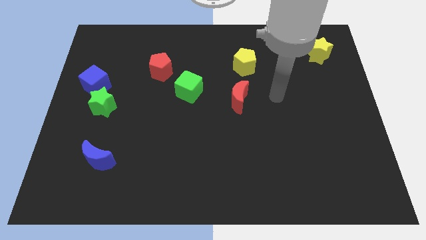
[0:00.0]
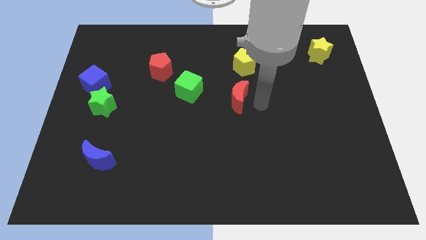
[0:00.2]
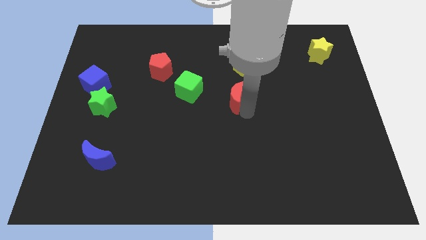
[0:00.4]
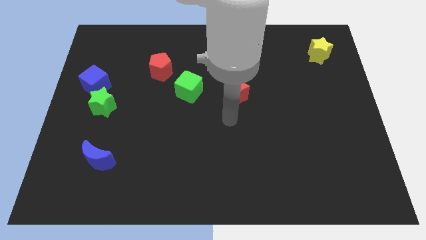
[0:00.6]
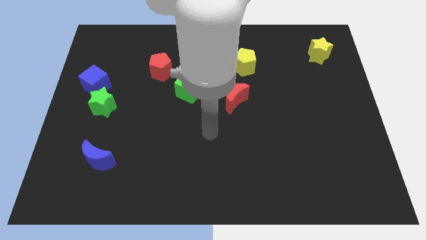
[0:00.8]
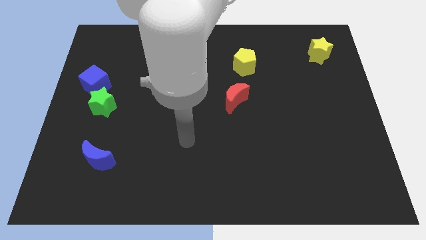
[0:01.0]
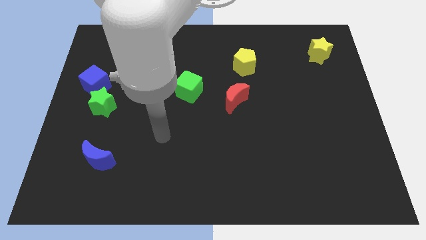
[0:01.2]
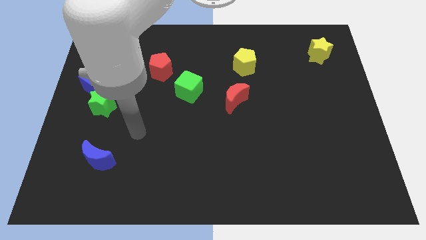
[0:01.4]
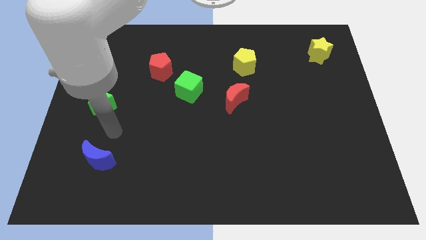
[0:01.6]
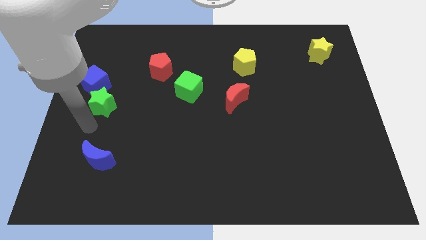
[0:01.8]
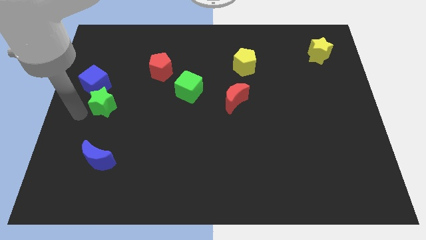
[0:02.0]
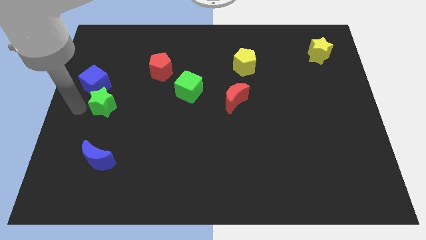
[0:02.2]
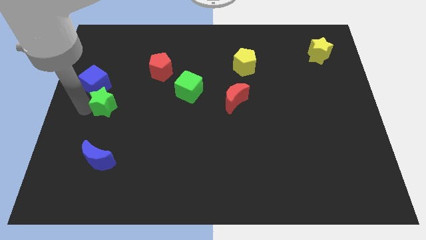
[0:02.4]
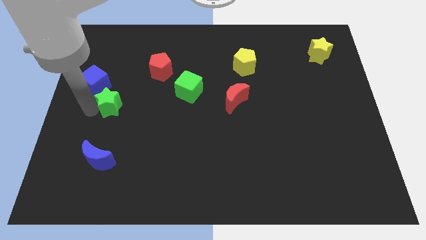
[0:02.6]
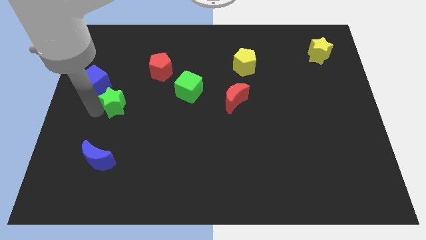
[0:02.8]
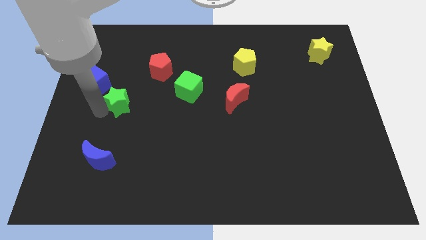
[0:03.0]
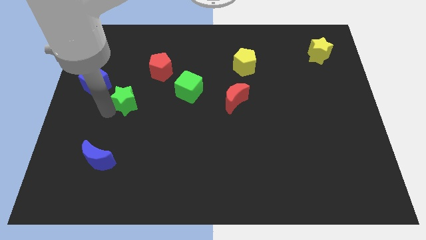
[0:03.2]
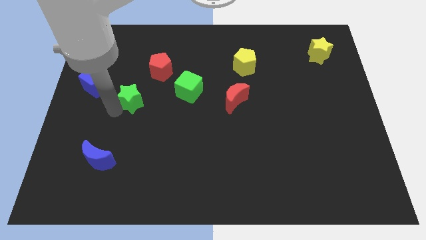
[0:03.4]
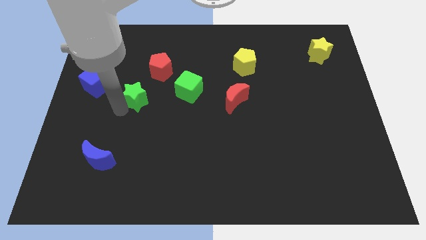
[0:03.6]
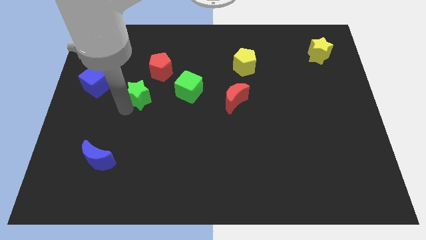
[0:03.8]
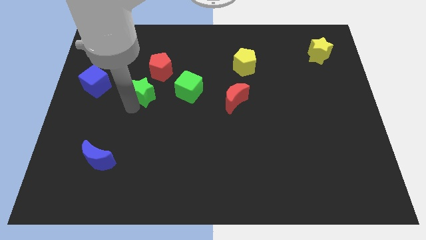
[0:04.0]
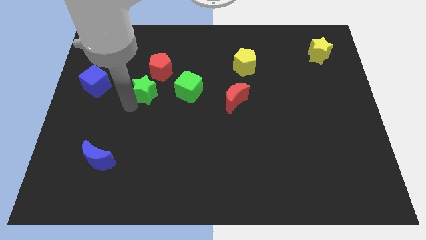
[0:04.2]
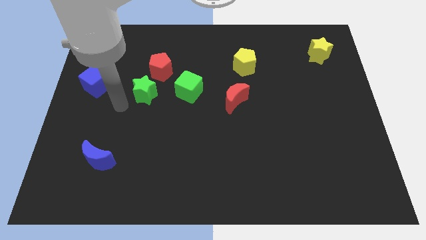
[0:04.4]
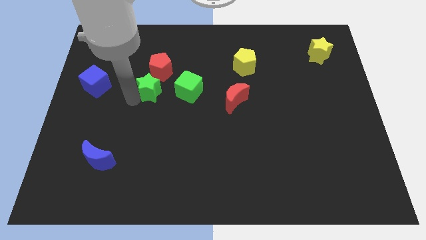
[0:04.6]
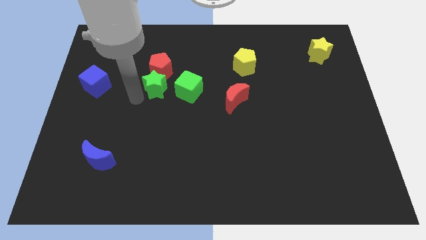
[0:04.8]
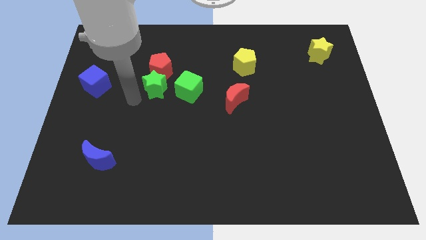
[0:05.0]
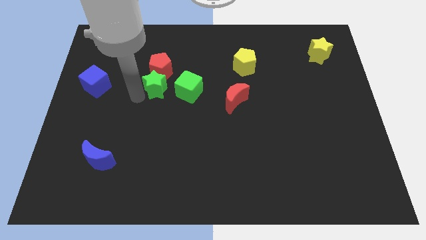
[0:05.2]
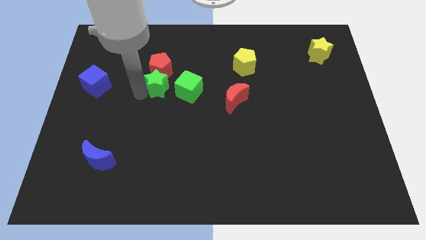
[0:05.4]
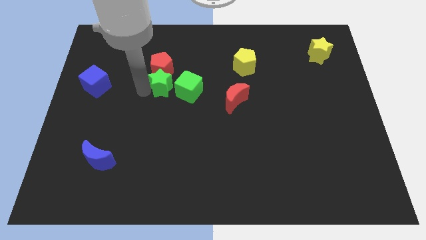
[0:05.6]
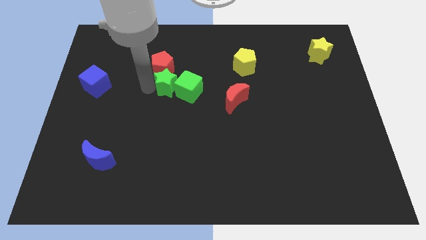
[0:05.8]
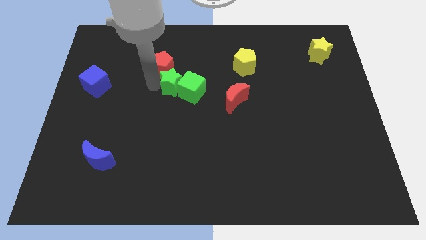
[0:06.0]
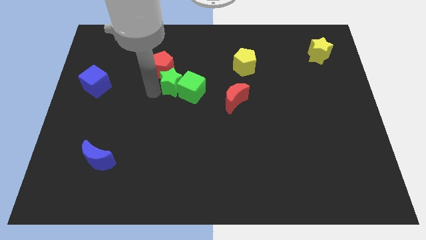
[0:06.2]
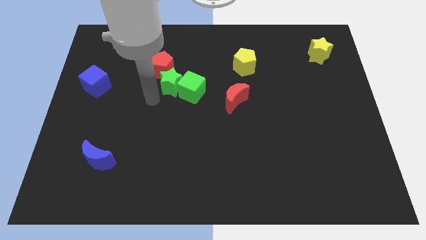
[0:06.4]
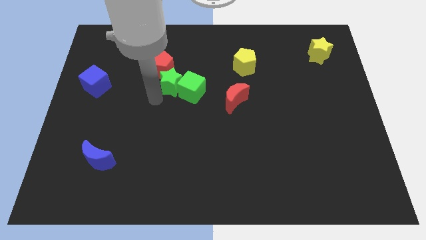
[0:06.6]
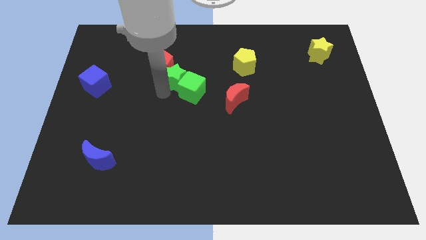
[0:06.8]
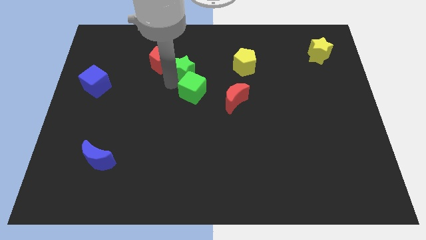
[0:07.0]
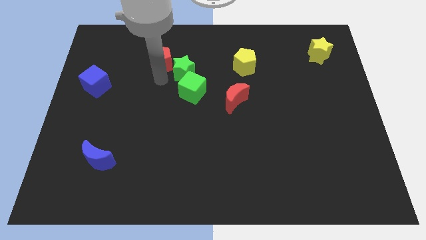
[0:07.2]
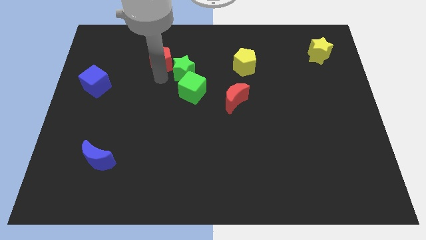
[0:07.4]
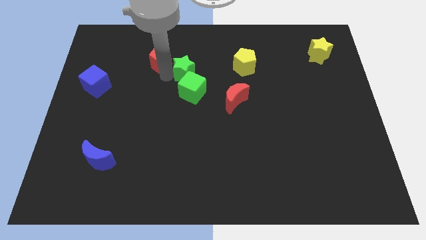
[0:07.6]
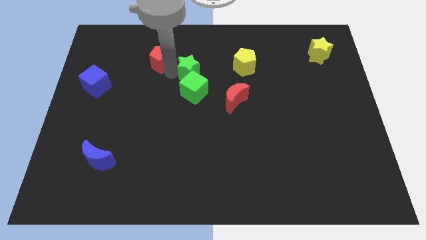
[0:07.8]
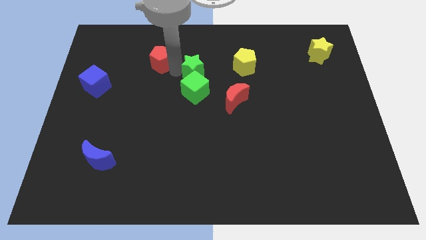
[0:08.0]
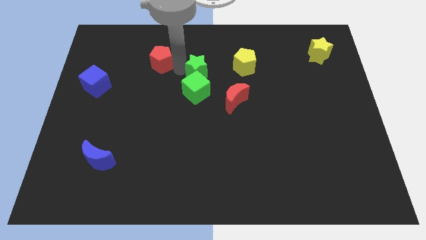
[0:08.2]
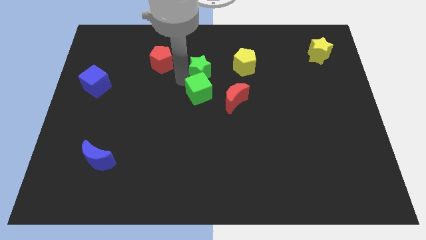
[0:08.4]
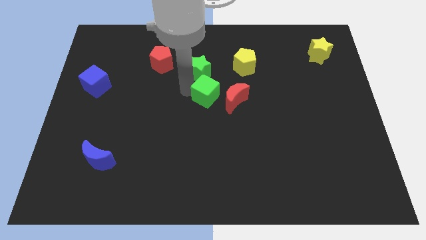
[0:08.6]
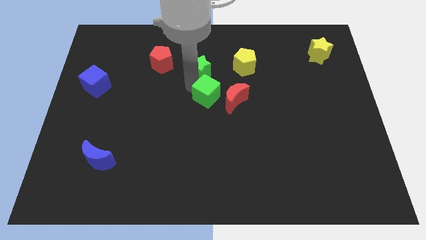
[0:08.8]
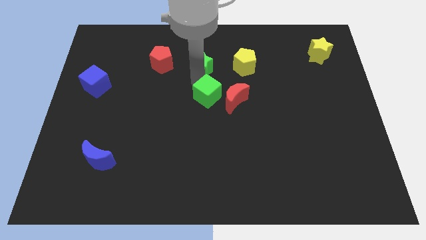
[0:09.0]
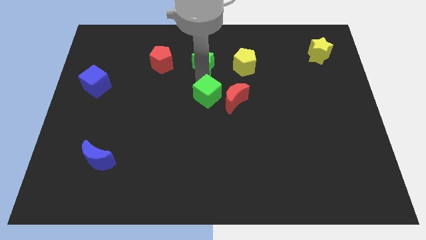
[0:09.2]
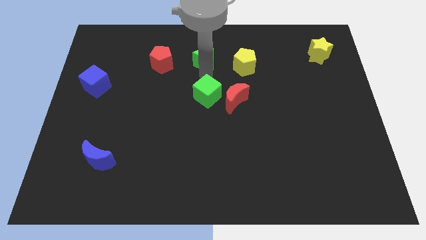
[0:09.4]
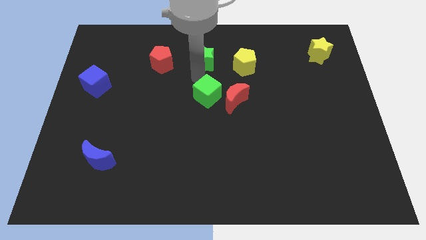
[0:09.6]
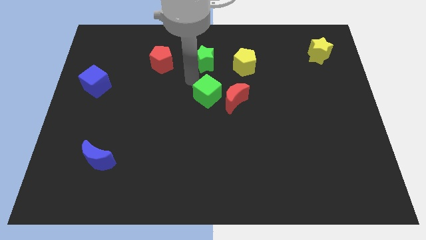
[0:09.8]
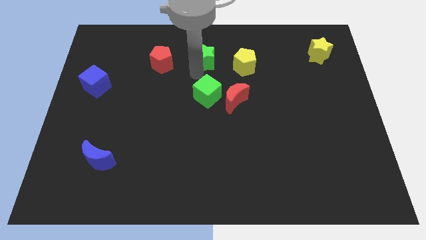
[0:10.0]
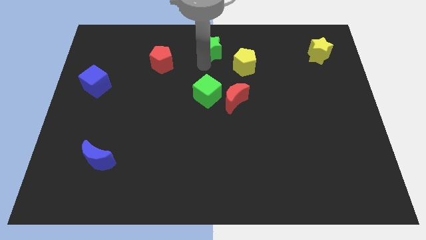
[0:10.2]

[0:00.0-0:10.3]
push the green star to the top side

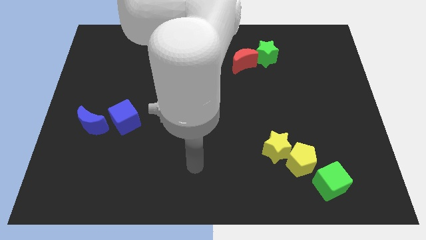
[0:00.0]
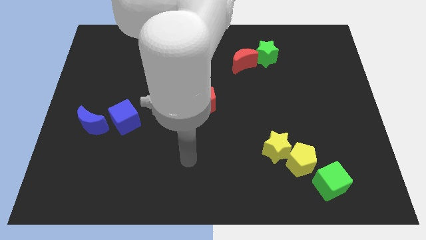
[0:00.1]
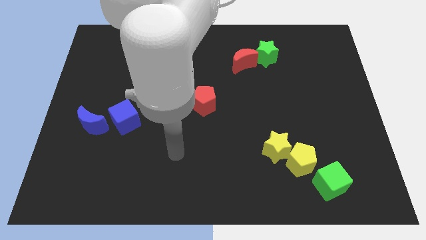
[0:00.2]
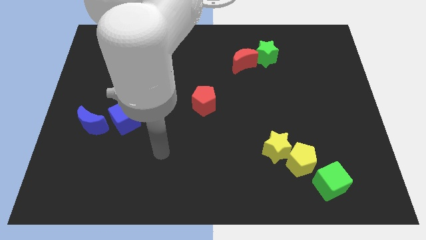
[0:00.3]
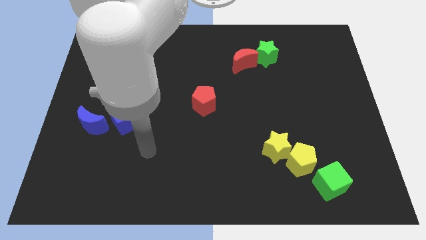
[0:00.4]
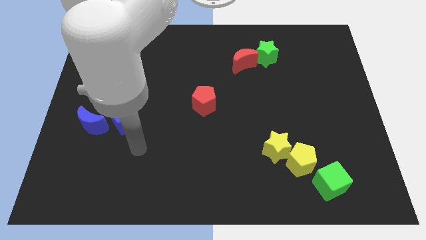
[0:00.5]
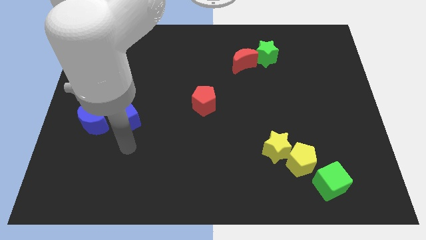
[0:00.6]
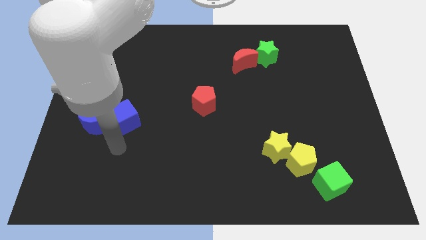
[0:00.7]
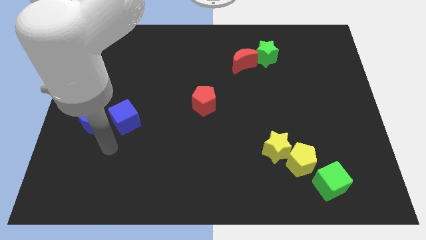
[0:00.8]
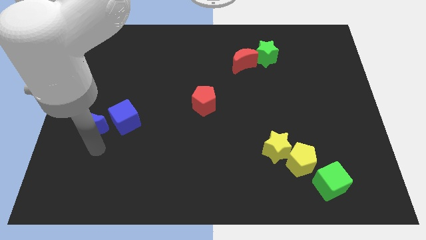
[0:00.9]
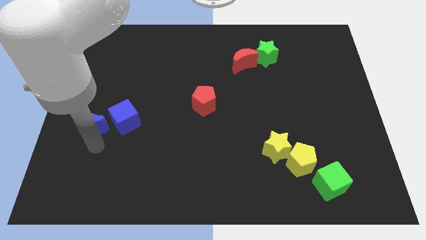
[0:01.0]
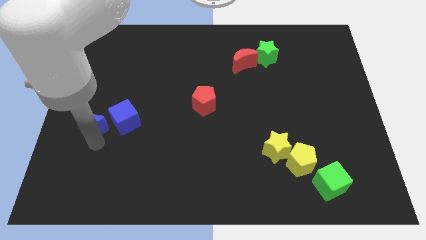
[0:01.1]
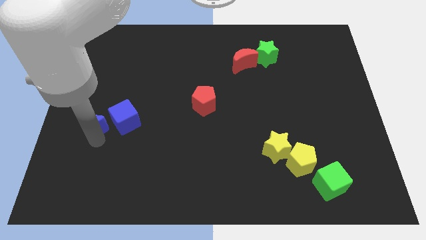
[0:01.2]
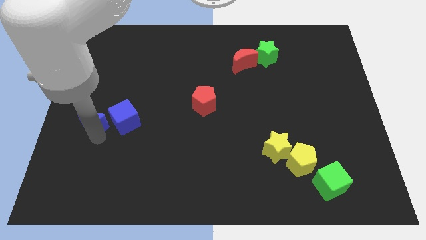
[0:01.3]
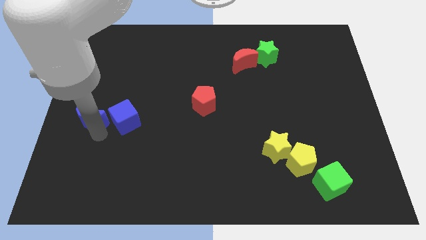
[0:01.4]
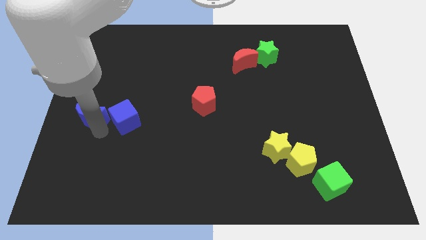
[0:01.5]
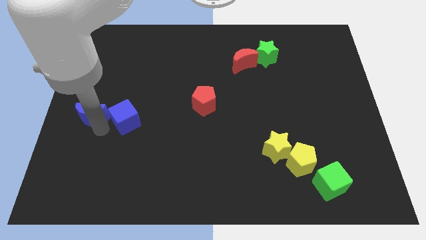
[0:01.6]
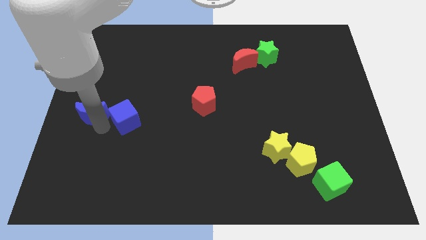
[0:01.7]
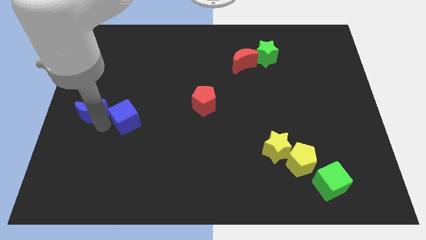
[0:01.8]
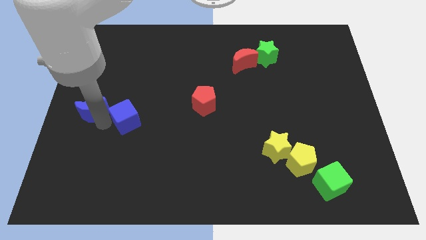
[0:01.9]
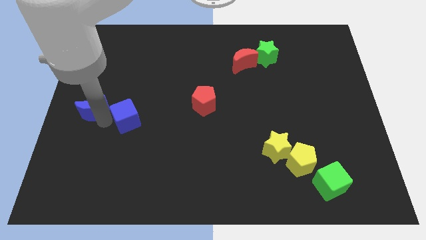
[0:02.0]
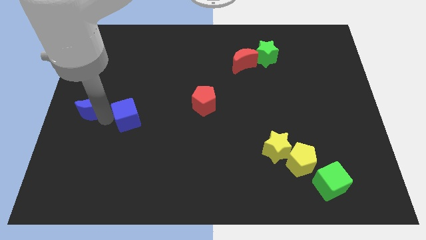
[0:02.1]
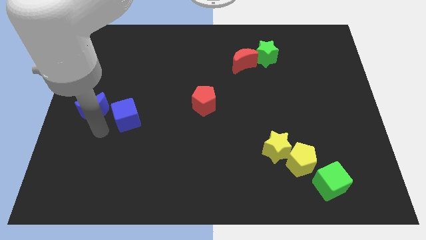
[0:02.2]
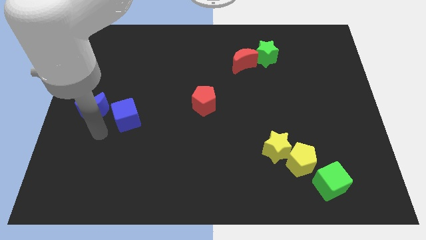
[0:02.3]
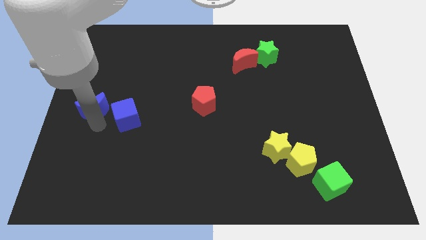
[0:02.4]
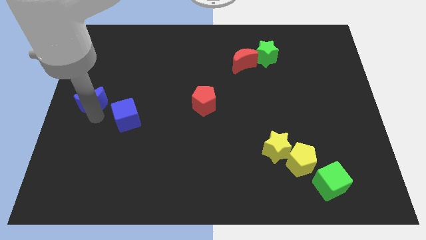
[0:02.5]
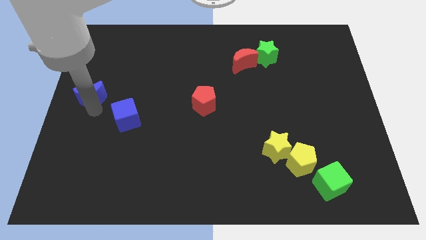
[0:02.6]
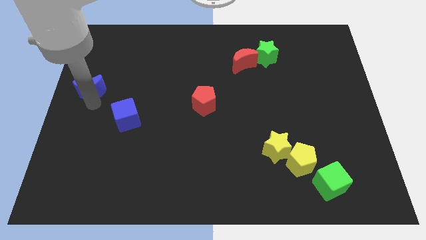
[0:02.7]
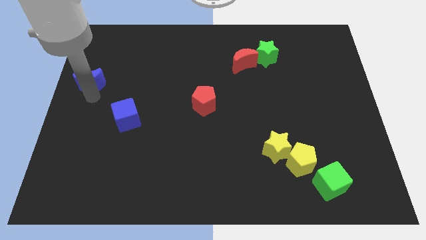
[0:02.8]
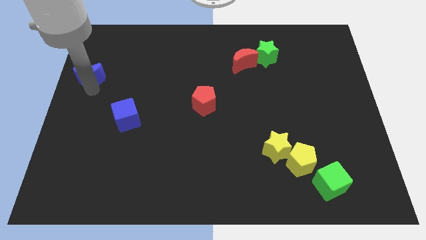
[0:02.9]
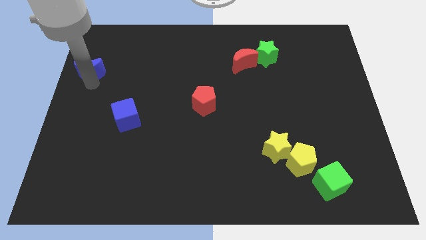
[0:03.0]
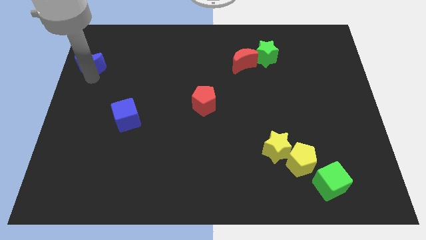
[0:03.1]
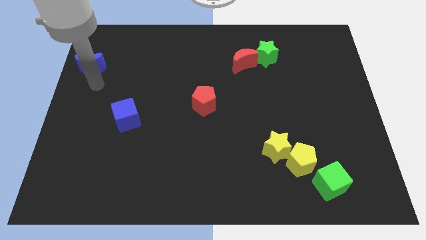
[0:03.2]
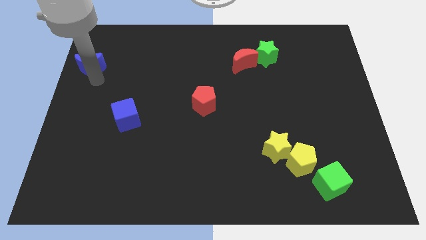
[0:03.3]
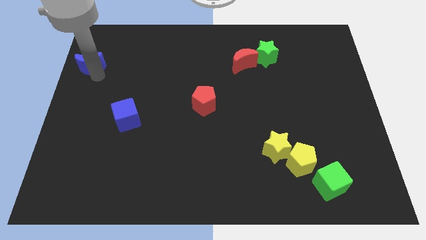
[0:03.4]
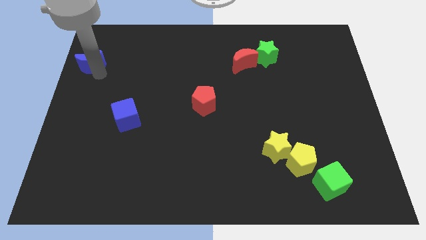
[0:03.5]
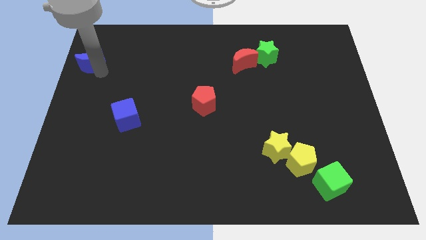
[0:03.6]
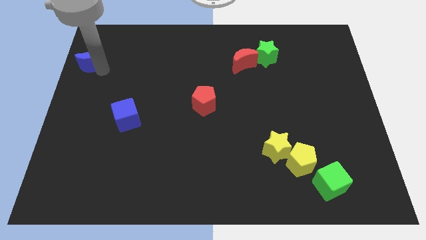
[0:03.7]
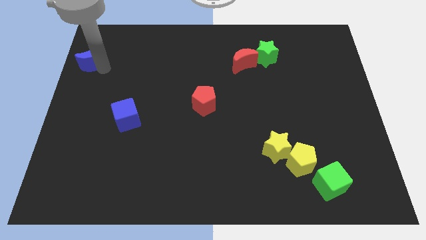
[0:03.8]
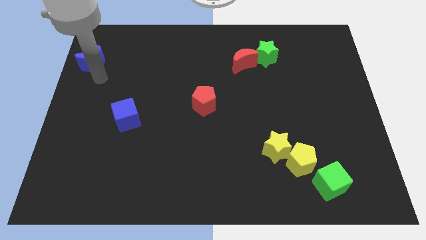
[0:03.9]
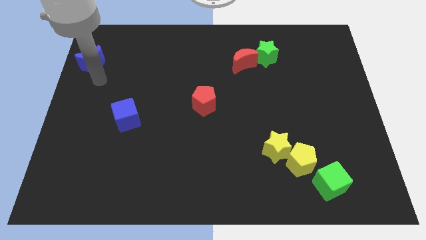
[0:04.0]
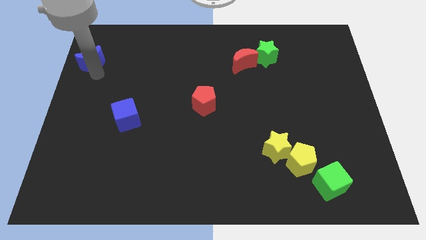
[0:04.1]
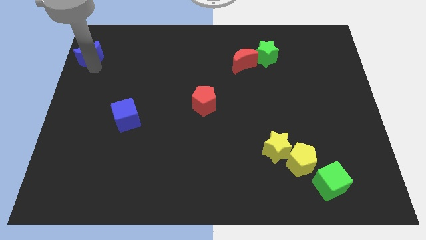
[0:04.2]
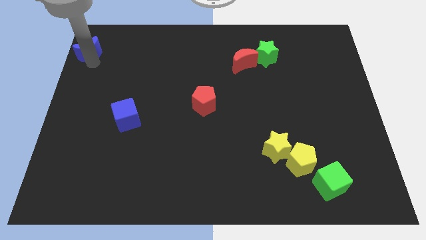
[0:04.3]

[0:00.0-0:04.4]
move the blue moon to the upper left corner
